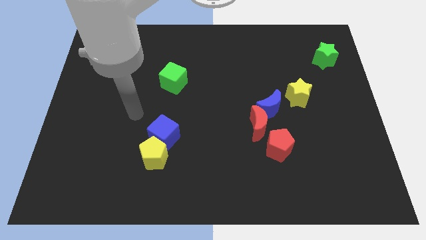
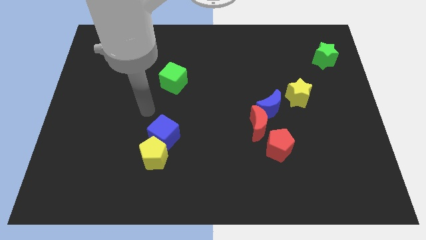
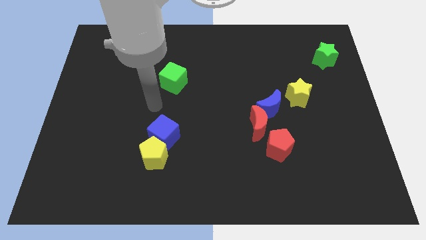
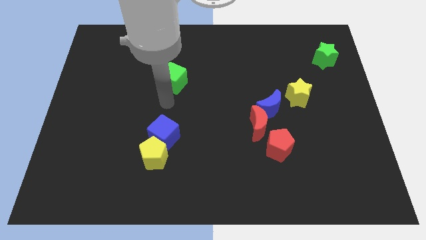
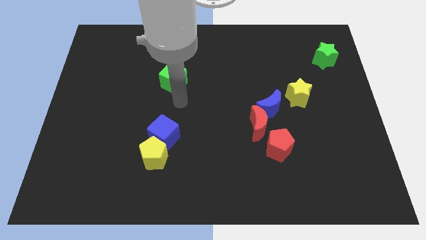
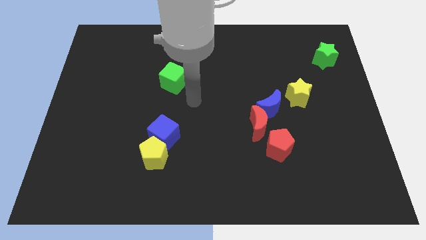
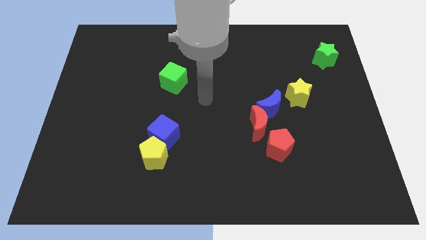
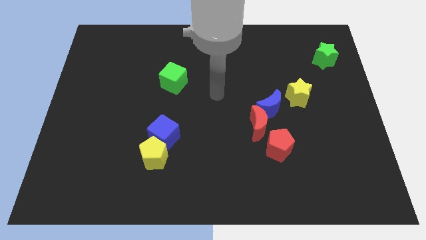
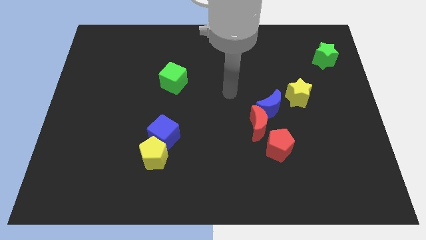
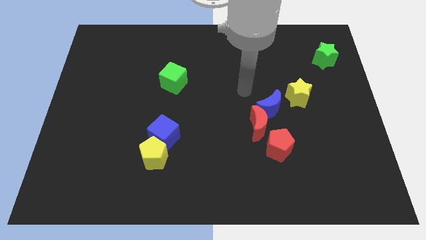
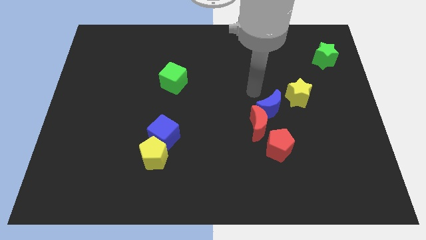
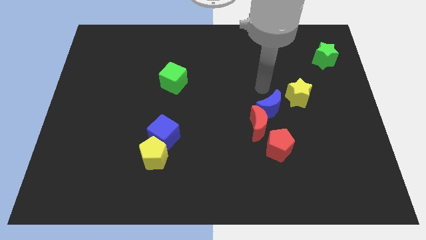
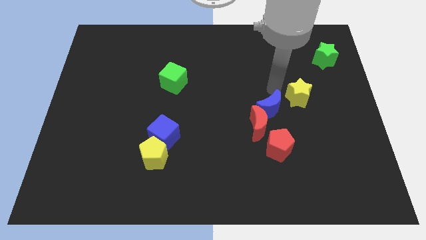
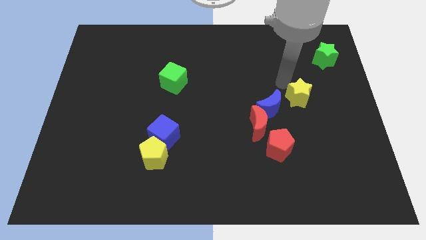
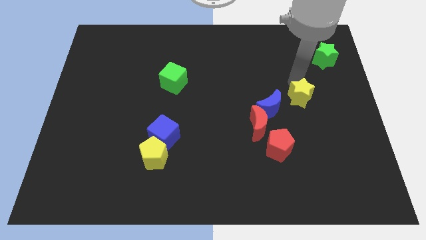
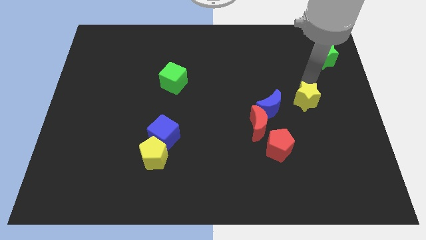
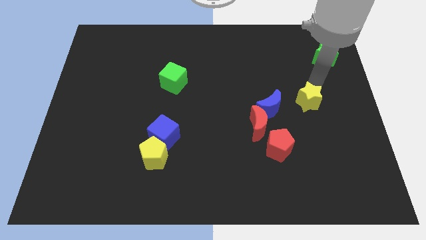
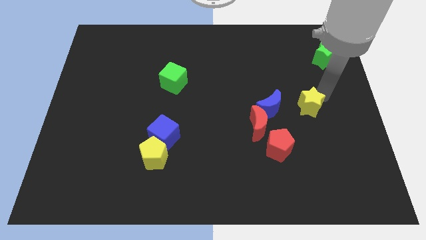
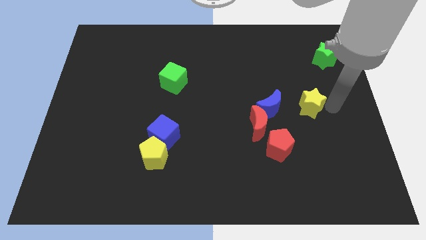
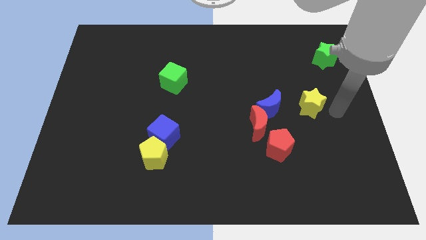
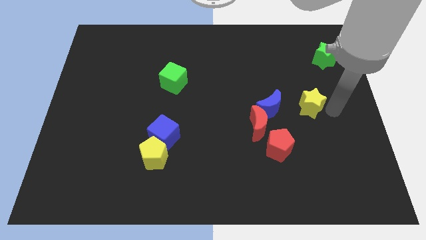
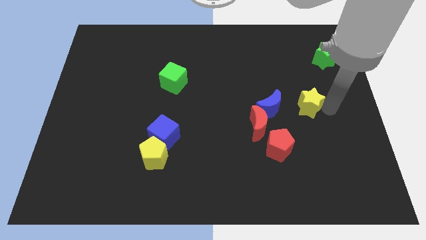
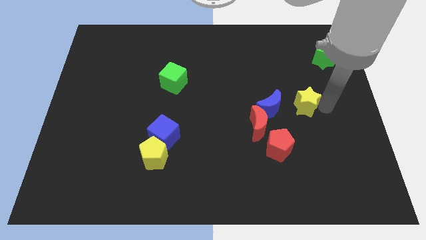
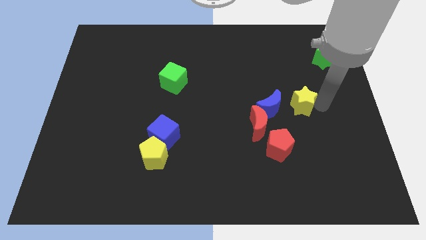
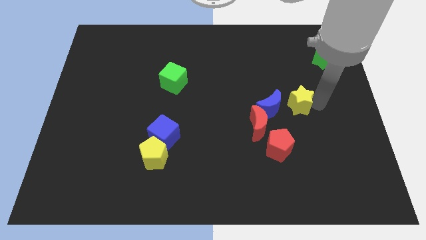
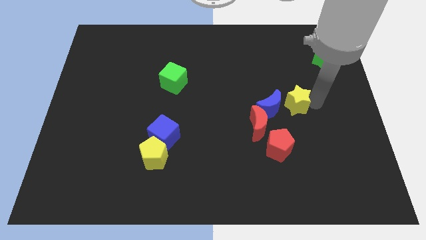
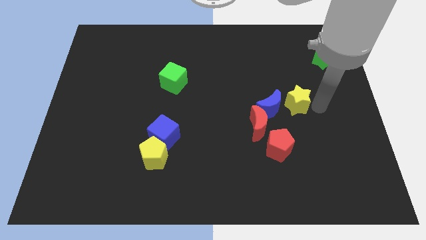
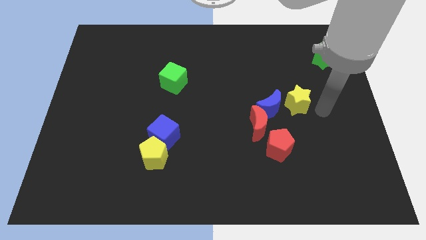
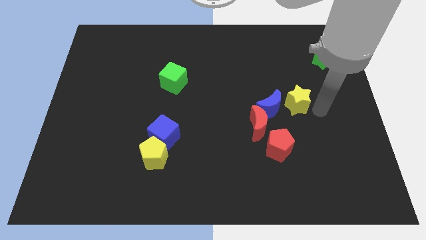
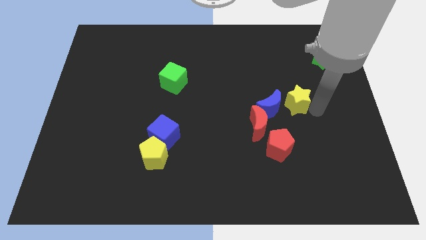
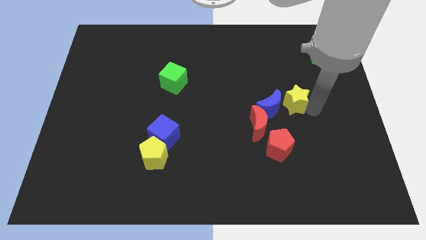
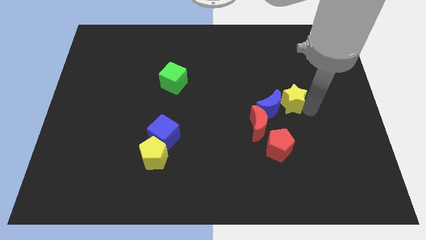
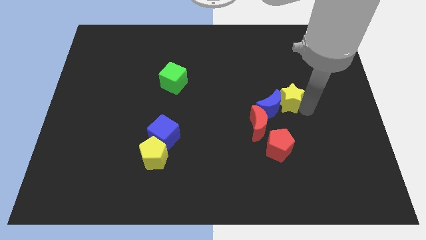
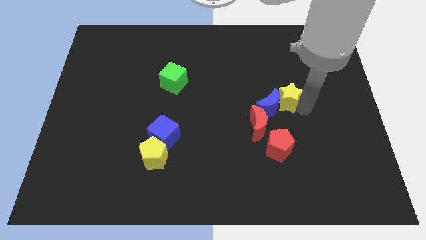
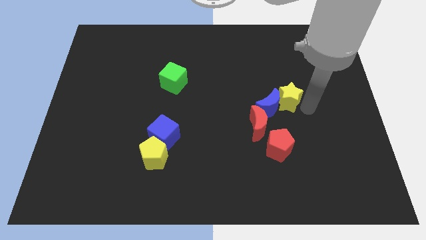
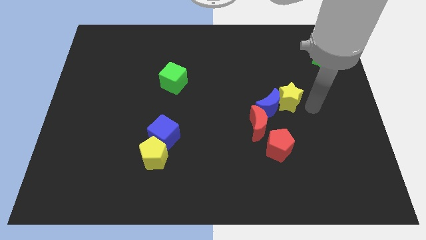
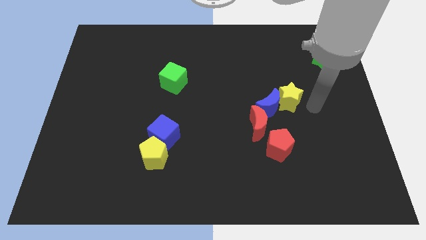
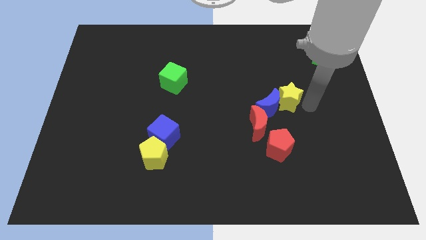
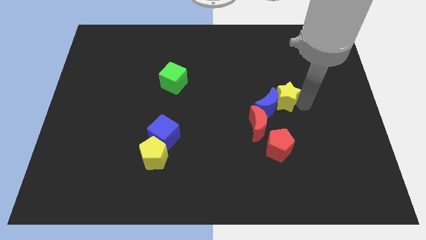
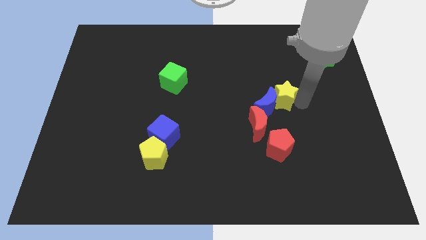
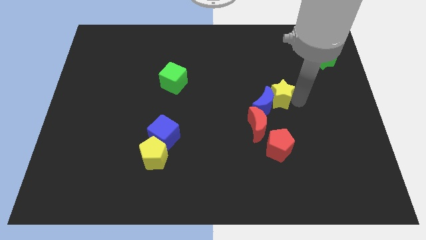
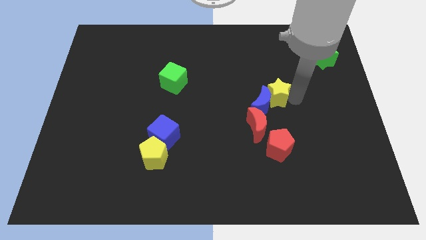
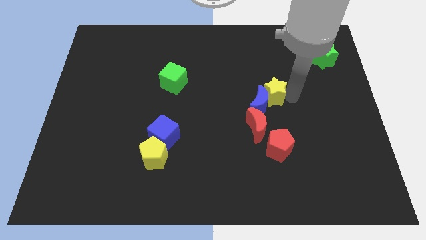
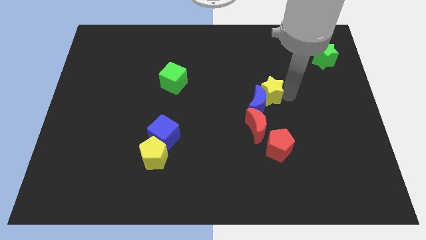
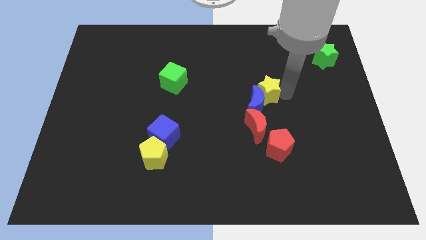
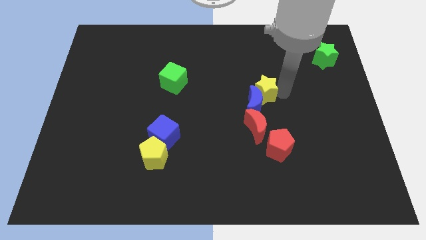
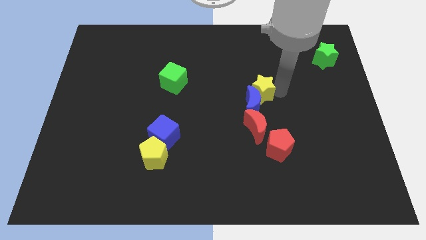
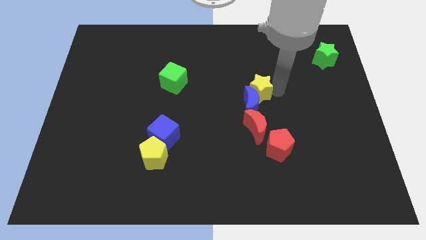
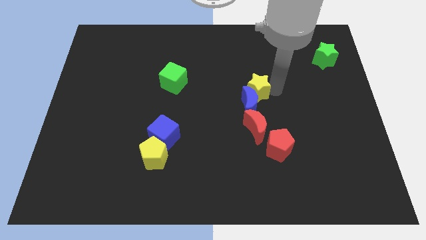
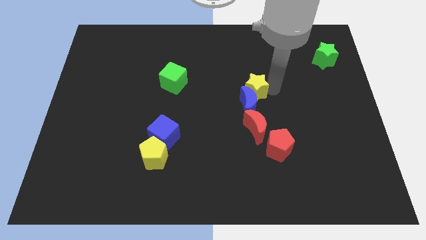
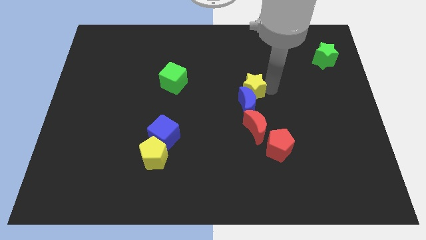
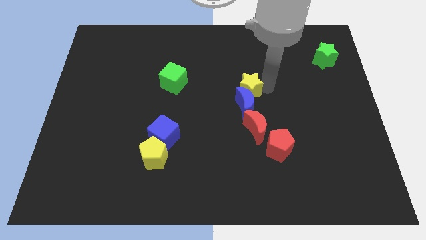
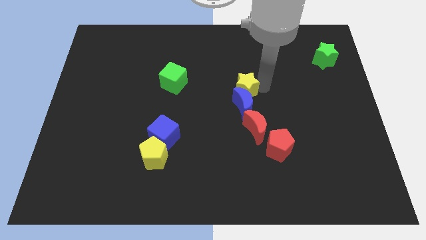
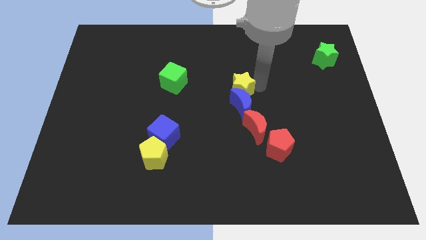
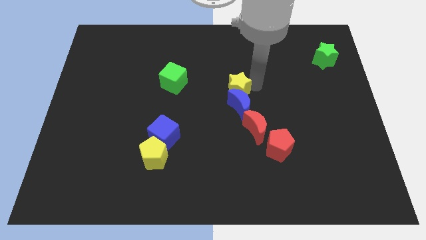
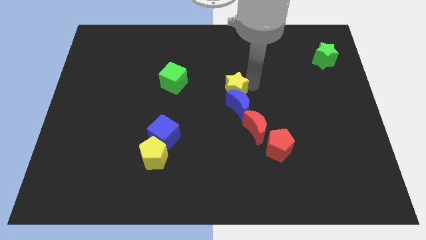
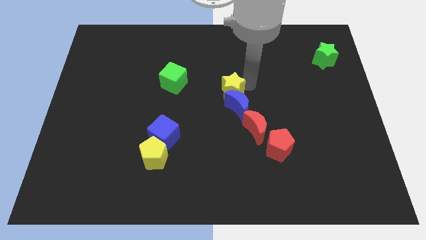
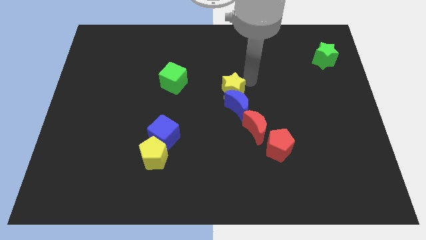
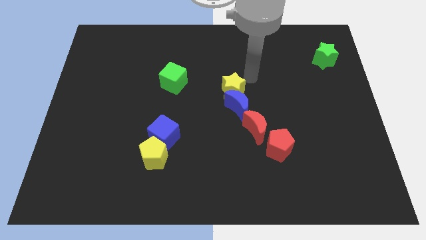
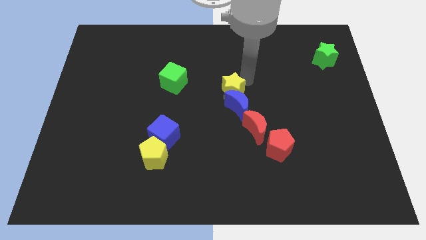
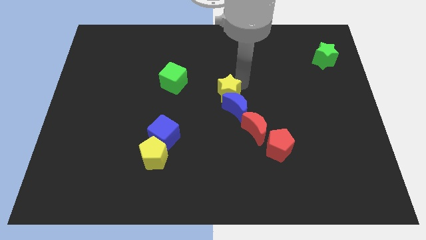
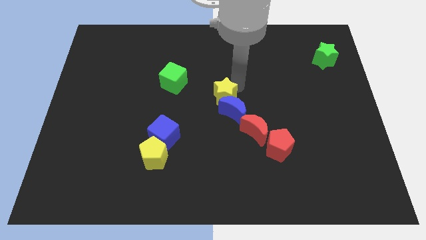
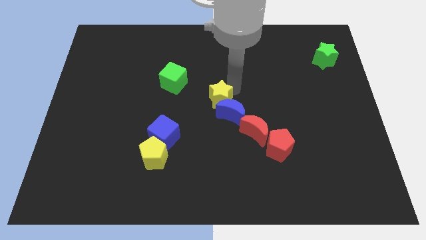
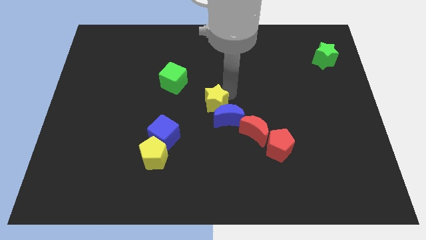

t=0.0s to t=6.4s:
move the yellow star to the left

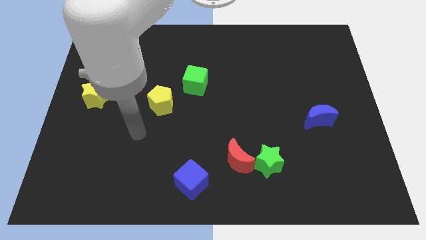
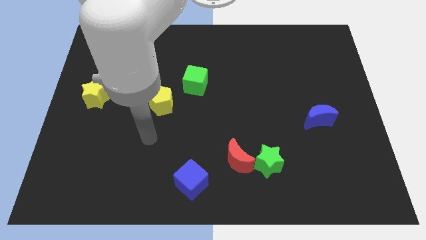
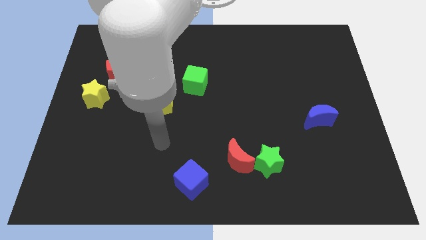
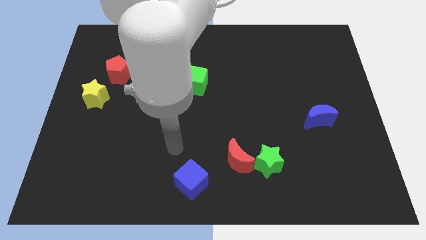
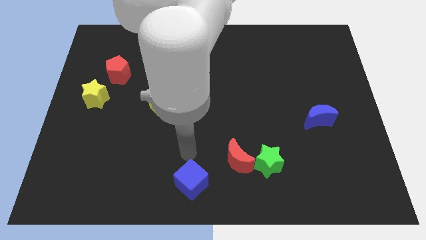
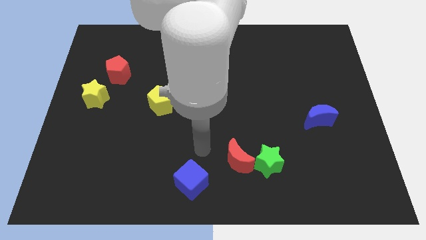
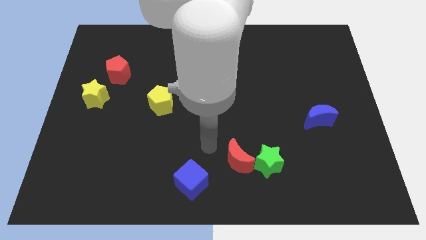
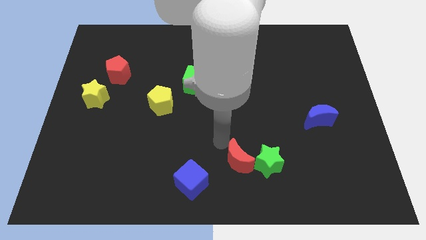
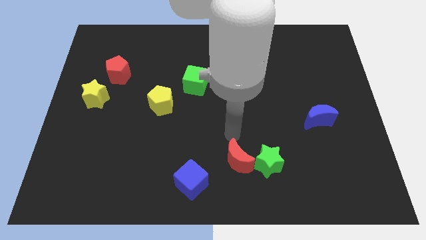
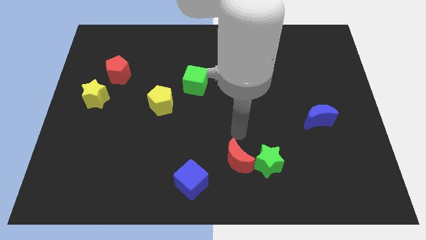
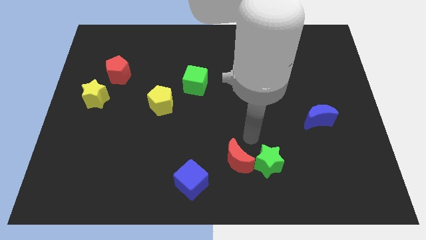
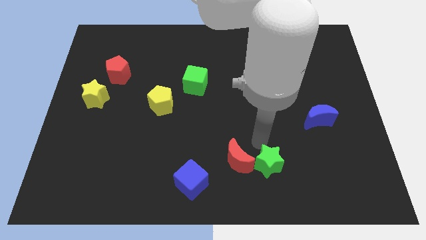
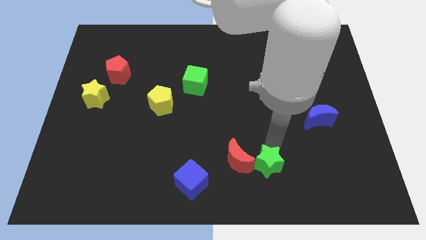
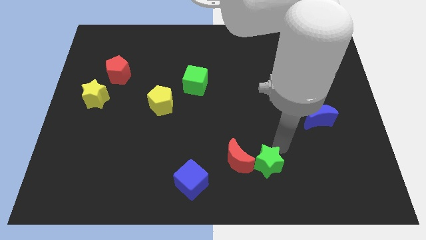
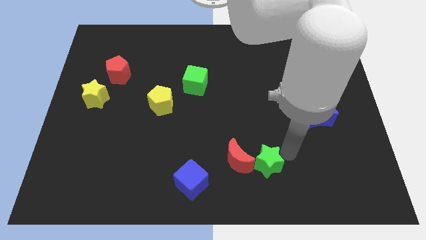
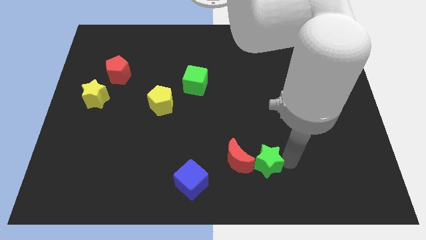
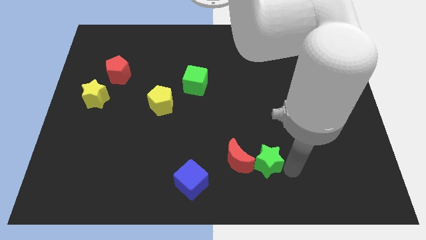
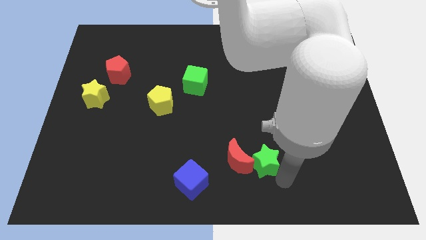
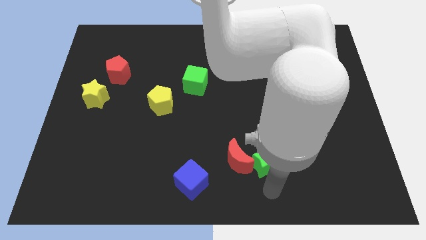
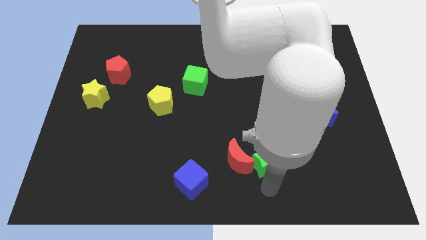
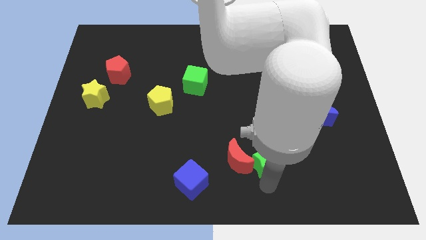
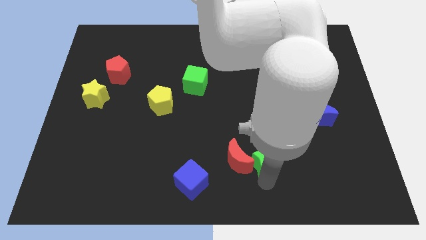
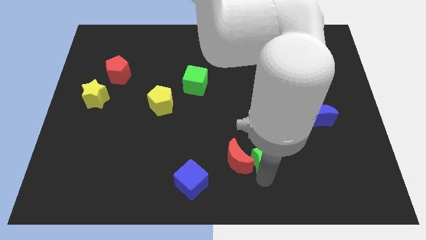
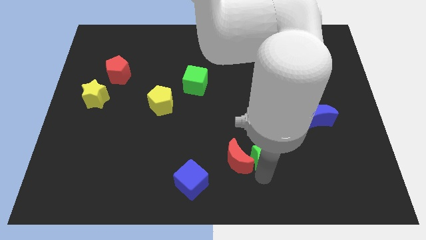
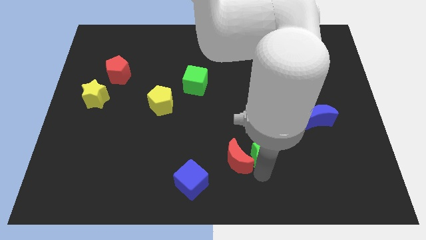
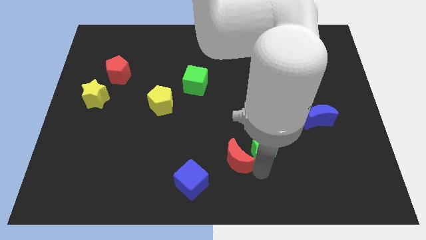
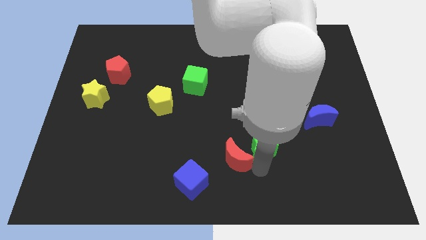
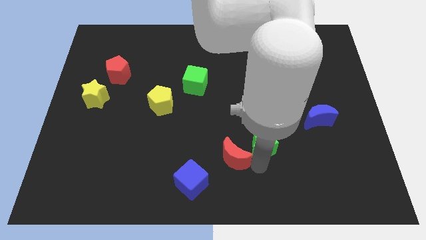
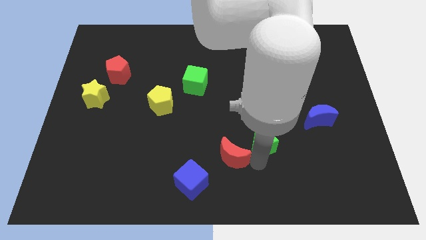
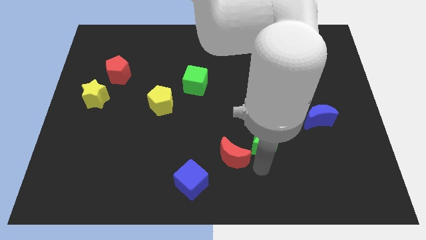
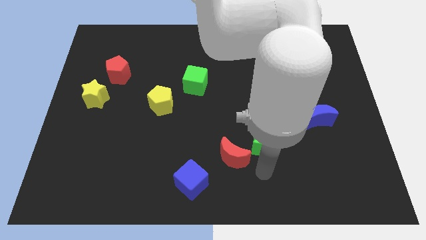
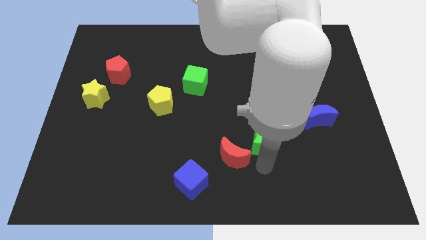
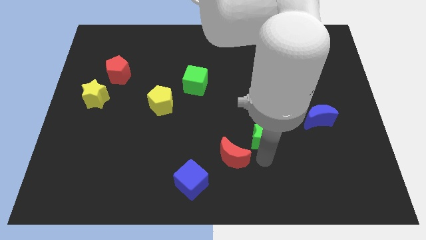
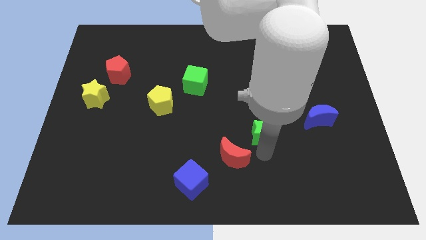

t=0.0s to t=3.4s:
slide the green star a bit up
